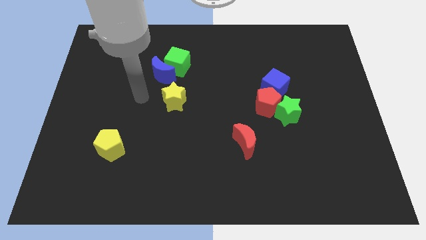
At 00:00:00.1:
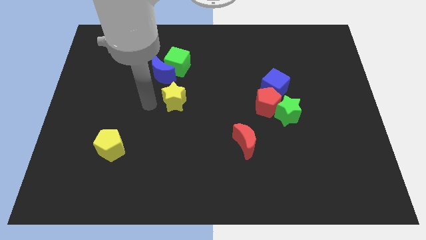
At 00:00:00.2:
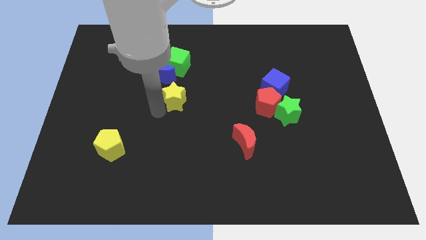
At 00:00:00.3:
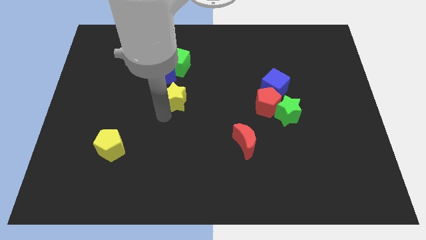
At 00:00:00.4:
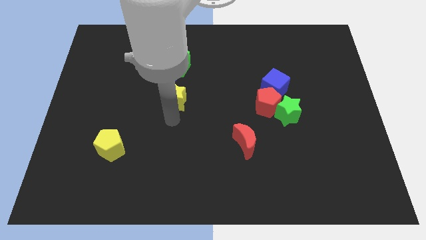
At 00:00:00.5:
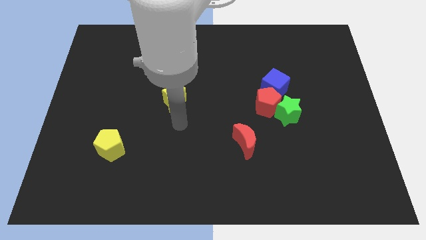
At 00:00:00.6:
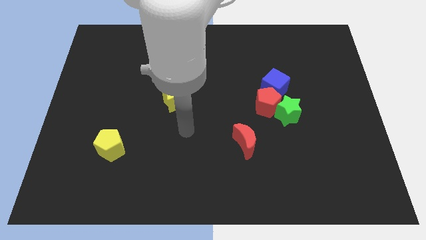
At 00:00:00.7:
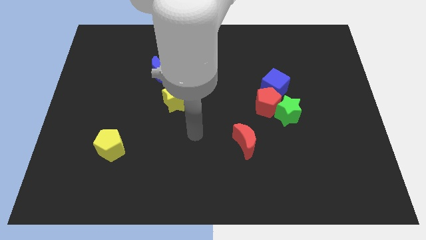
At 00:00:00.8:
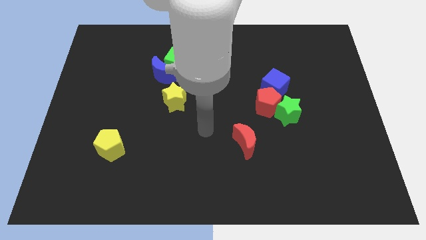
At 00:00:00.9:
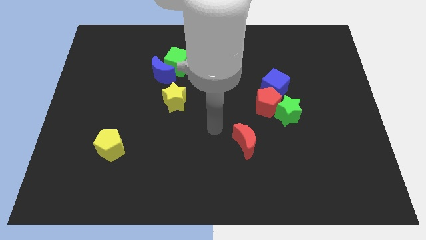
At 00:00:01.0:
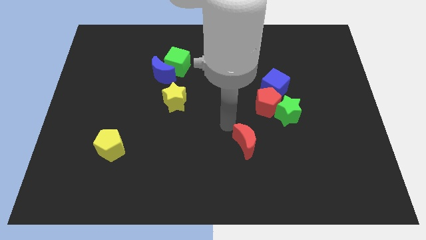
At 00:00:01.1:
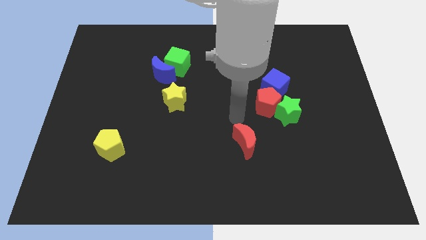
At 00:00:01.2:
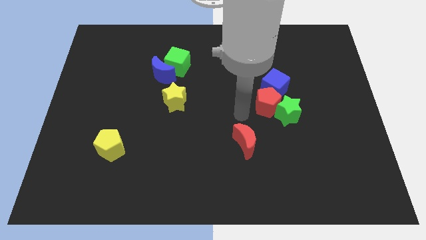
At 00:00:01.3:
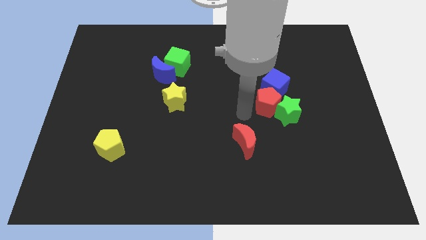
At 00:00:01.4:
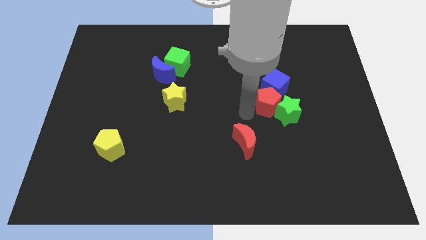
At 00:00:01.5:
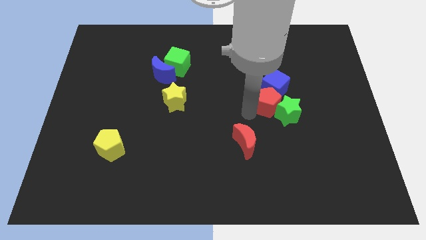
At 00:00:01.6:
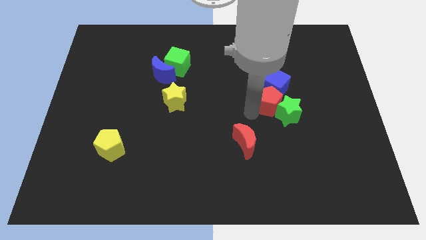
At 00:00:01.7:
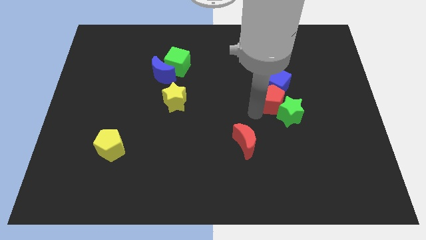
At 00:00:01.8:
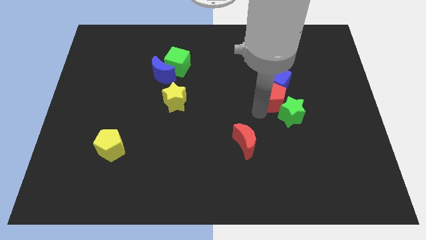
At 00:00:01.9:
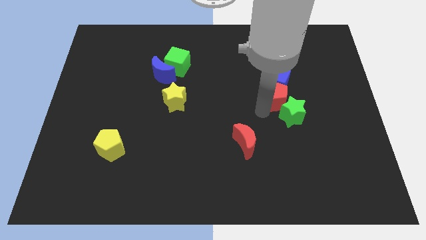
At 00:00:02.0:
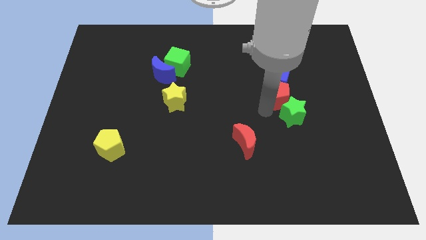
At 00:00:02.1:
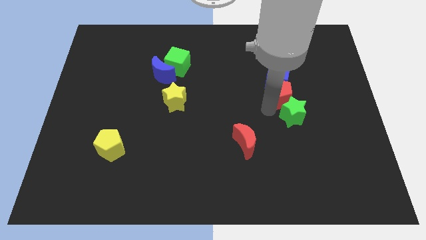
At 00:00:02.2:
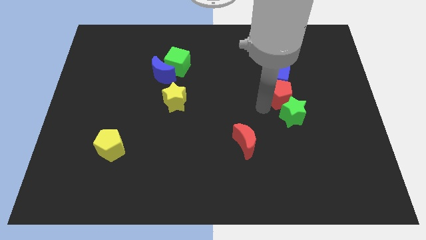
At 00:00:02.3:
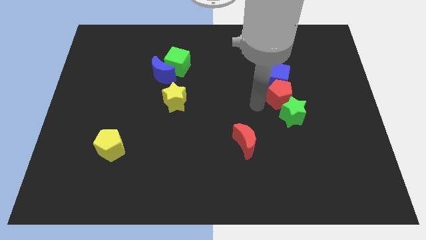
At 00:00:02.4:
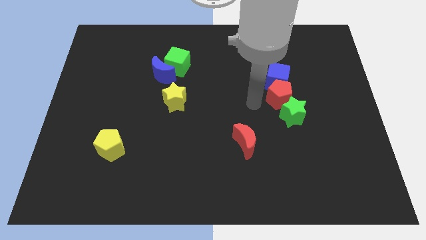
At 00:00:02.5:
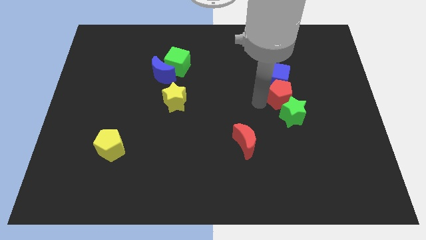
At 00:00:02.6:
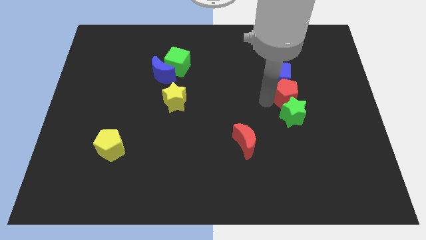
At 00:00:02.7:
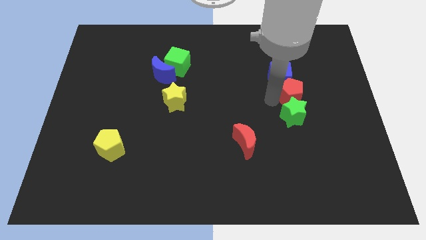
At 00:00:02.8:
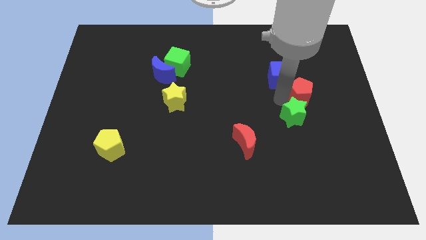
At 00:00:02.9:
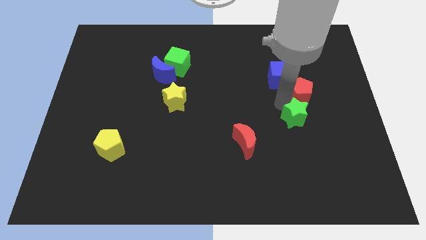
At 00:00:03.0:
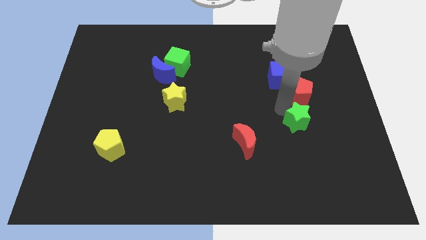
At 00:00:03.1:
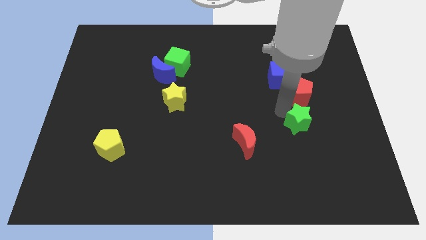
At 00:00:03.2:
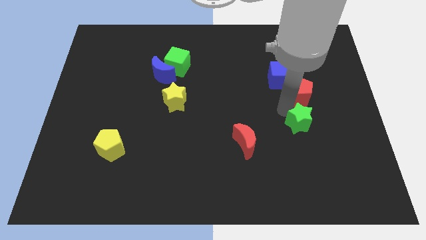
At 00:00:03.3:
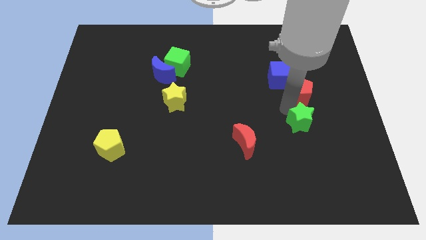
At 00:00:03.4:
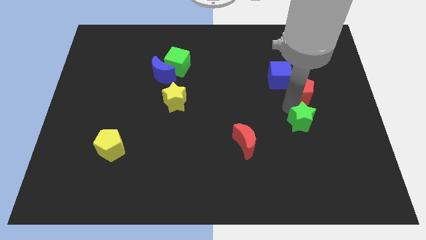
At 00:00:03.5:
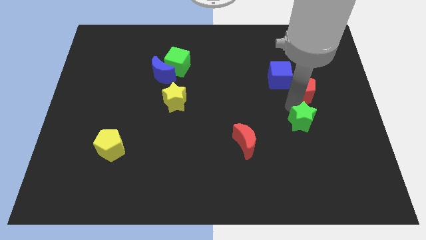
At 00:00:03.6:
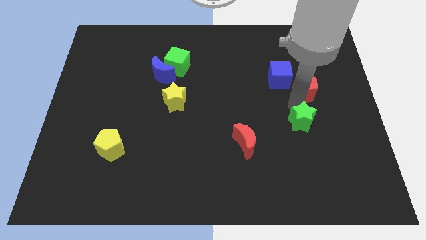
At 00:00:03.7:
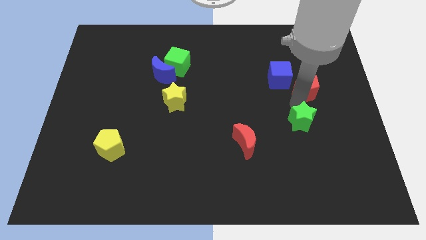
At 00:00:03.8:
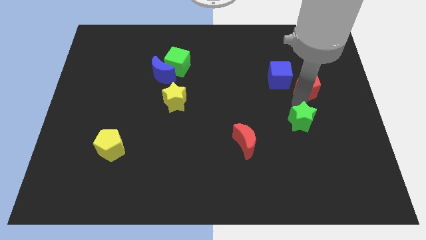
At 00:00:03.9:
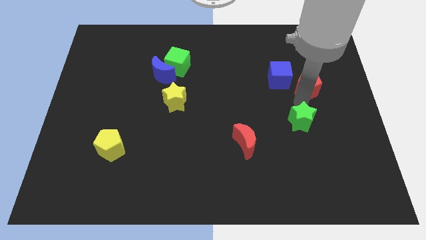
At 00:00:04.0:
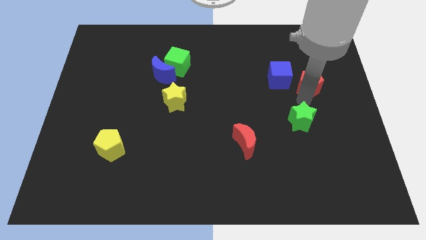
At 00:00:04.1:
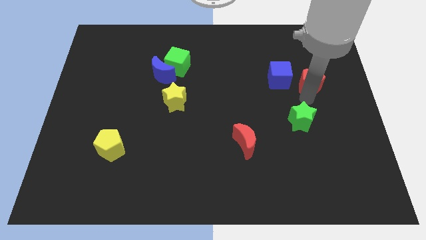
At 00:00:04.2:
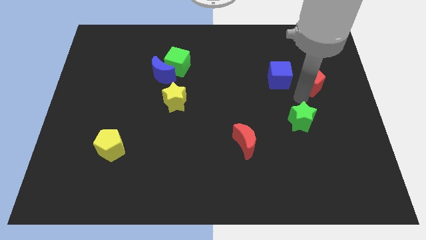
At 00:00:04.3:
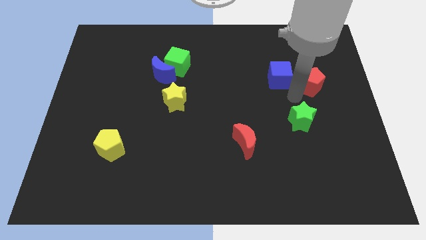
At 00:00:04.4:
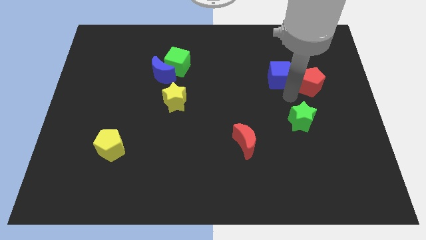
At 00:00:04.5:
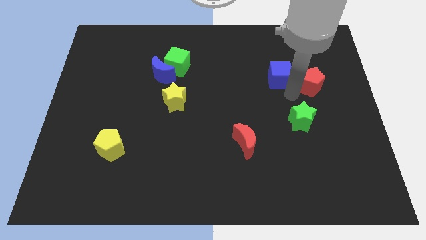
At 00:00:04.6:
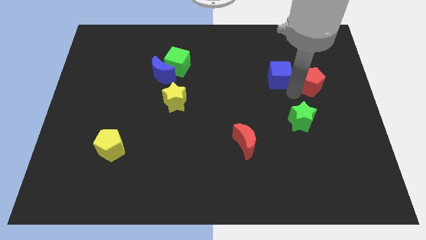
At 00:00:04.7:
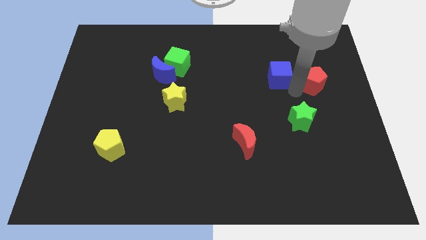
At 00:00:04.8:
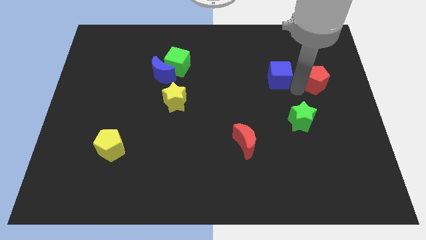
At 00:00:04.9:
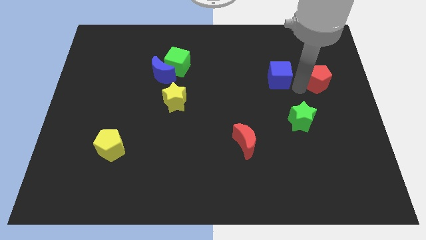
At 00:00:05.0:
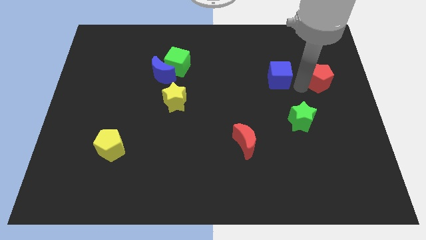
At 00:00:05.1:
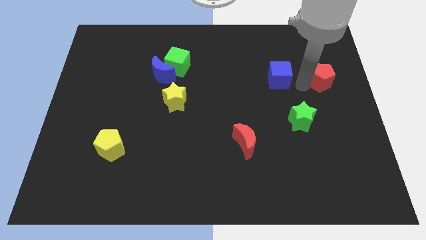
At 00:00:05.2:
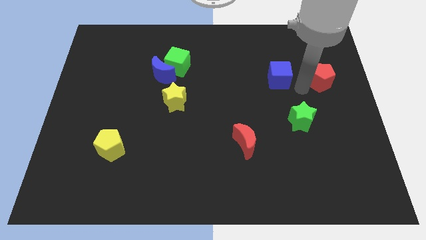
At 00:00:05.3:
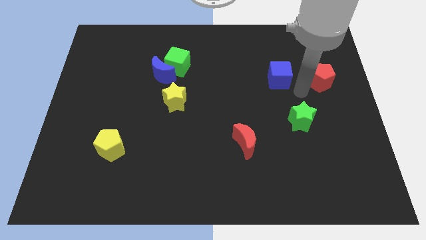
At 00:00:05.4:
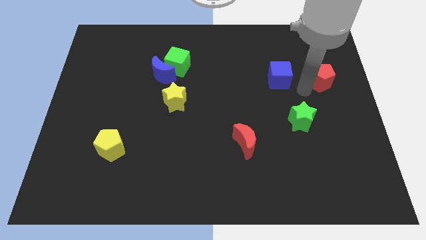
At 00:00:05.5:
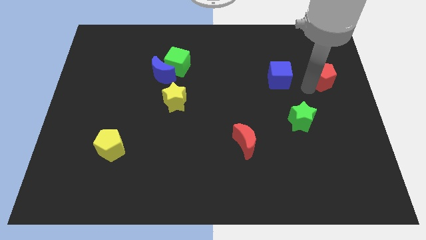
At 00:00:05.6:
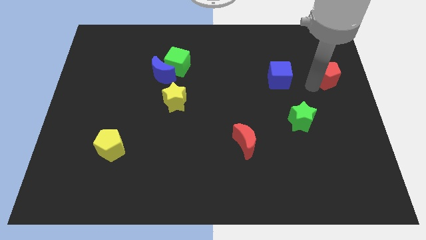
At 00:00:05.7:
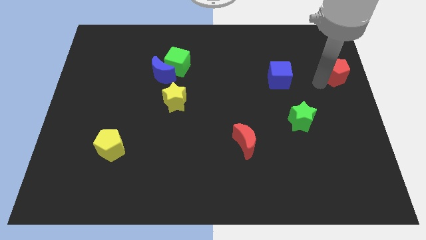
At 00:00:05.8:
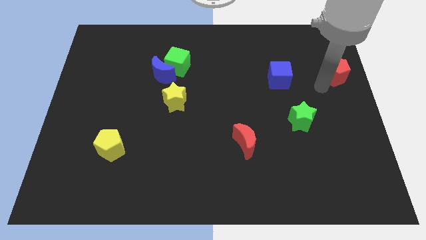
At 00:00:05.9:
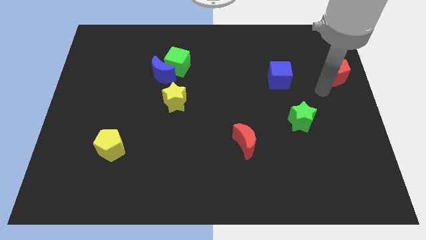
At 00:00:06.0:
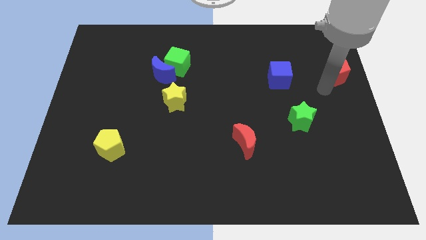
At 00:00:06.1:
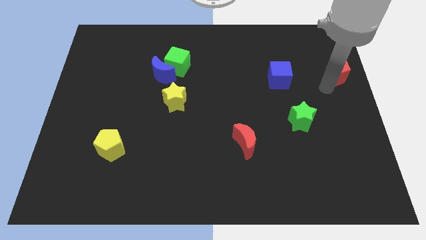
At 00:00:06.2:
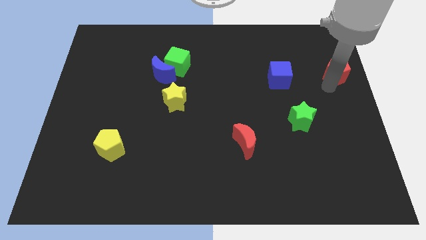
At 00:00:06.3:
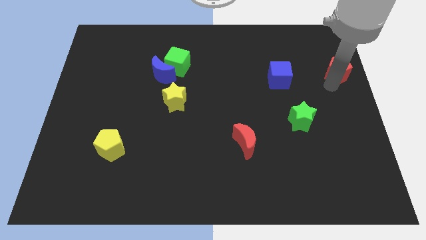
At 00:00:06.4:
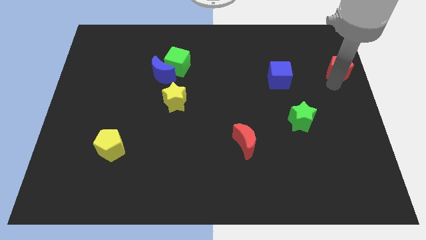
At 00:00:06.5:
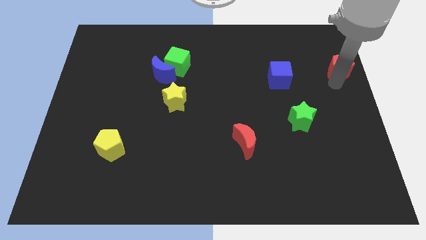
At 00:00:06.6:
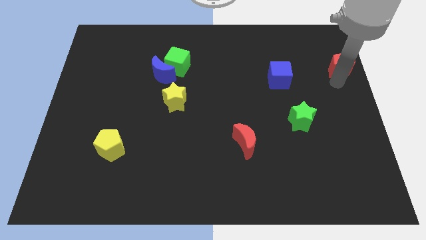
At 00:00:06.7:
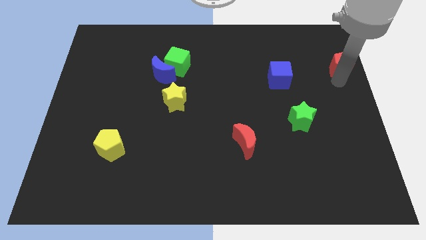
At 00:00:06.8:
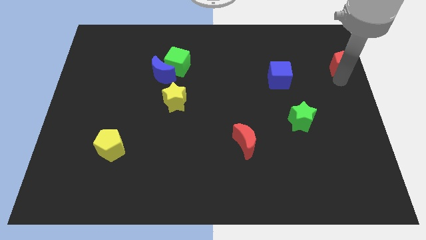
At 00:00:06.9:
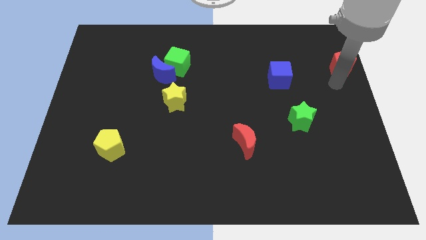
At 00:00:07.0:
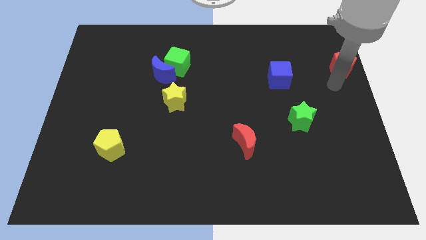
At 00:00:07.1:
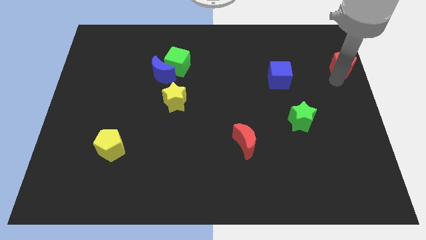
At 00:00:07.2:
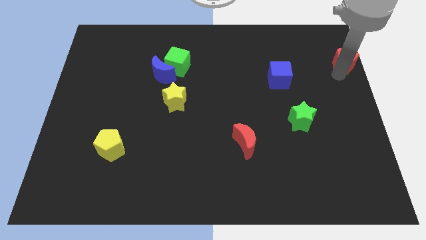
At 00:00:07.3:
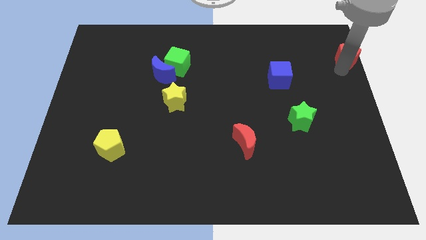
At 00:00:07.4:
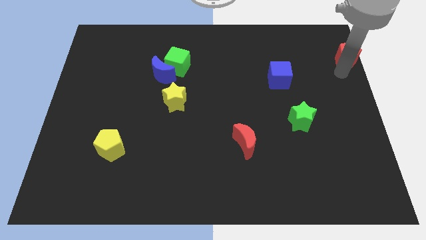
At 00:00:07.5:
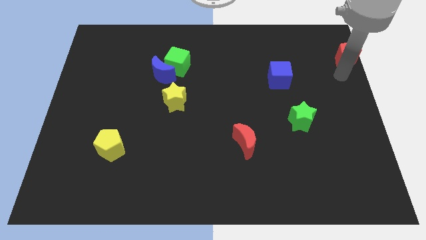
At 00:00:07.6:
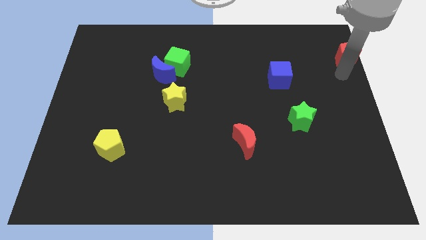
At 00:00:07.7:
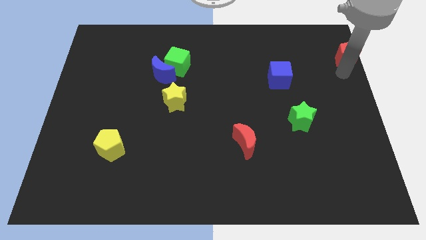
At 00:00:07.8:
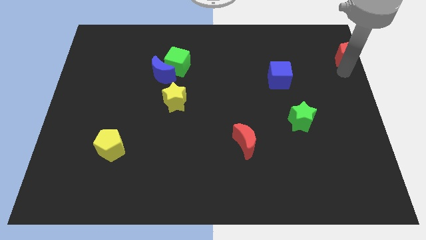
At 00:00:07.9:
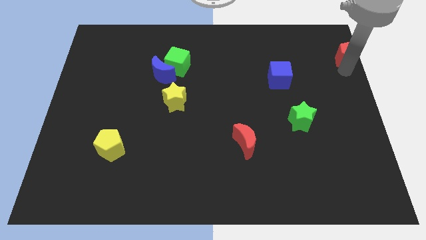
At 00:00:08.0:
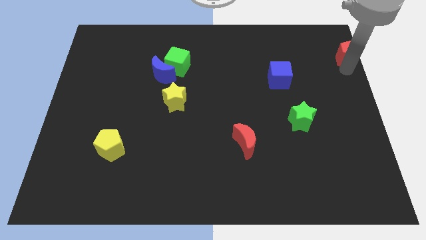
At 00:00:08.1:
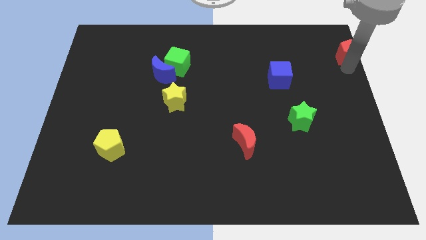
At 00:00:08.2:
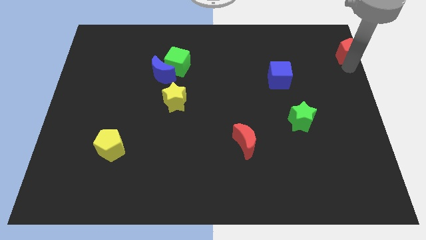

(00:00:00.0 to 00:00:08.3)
slide the red pentagon to the top right
